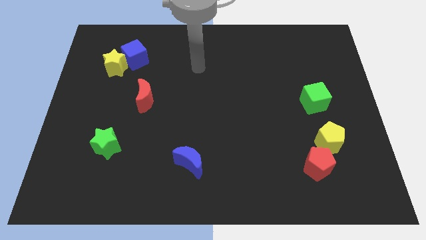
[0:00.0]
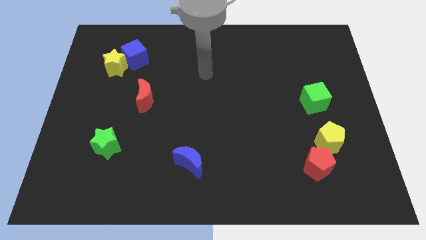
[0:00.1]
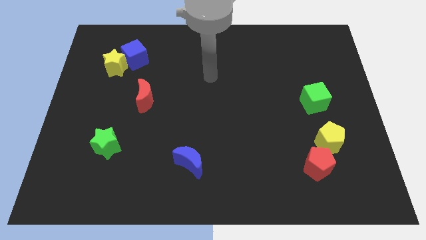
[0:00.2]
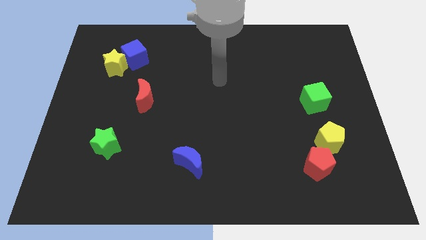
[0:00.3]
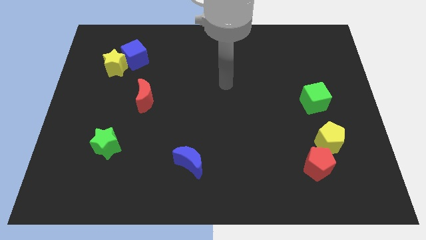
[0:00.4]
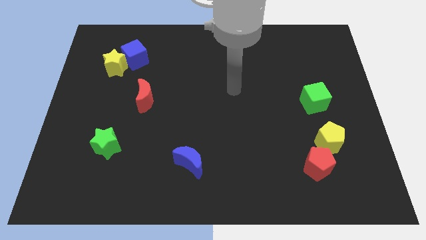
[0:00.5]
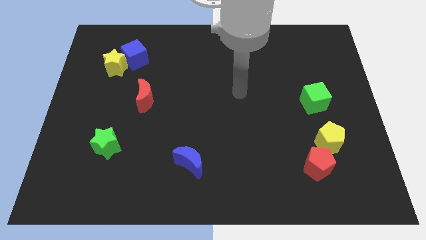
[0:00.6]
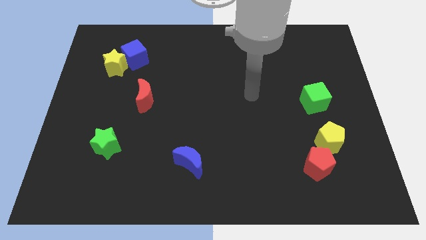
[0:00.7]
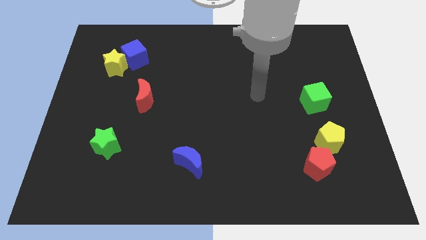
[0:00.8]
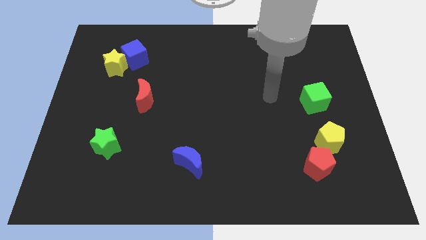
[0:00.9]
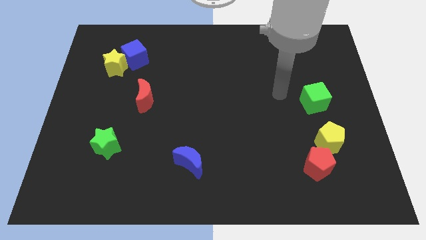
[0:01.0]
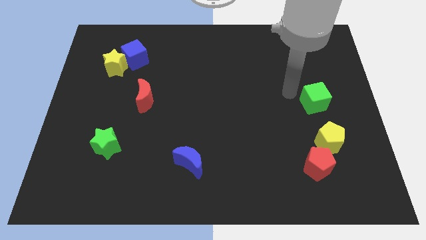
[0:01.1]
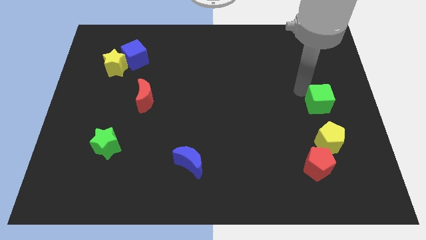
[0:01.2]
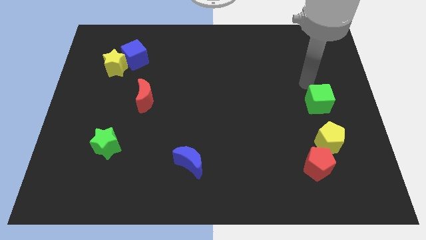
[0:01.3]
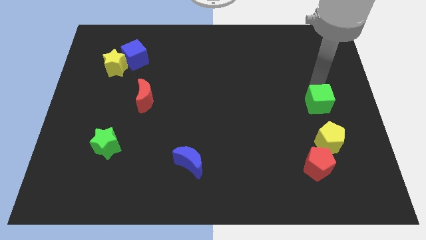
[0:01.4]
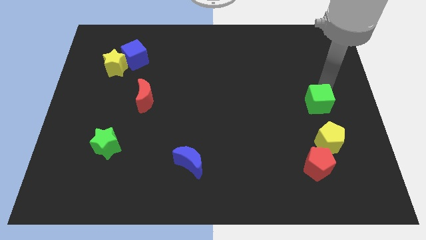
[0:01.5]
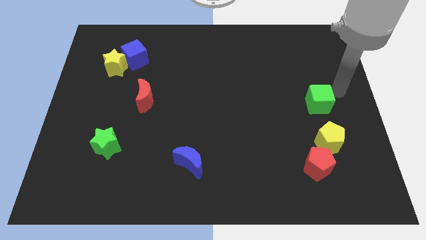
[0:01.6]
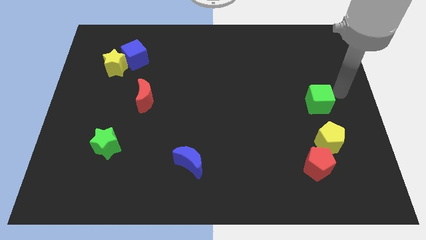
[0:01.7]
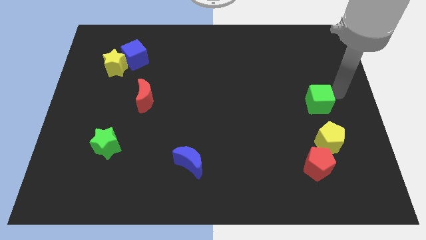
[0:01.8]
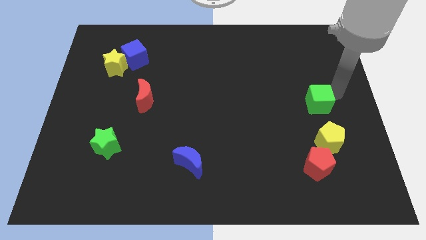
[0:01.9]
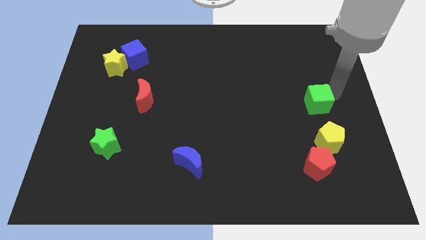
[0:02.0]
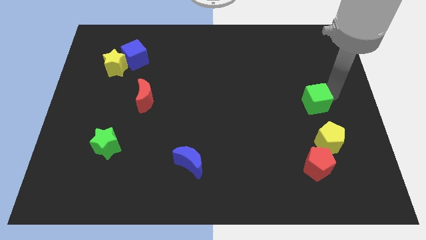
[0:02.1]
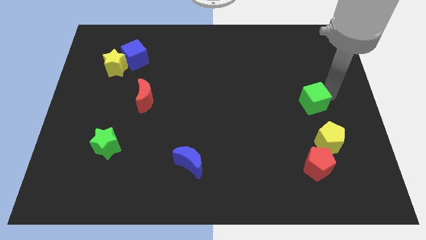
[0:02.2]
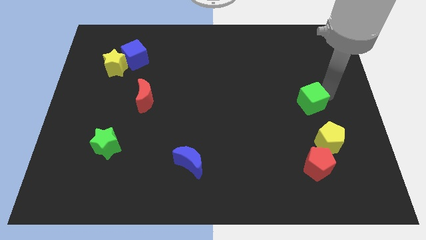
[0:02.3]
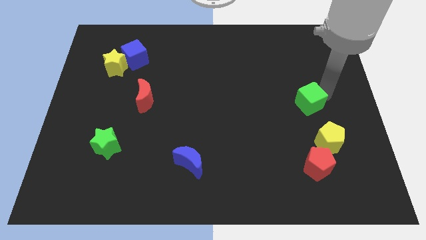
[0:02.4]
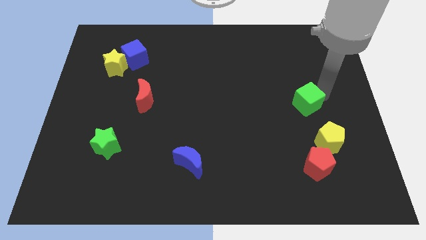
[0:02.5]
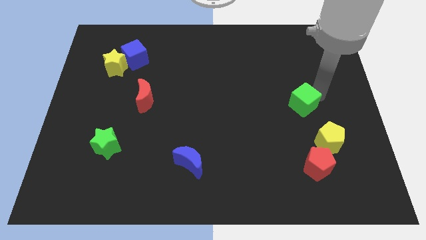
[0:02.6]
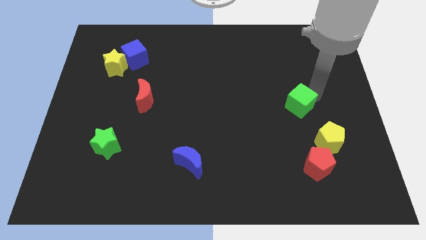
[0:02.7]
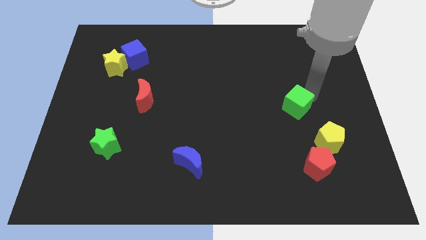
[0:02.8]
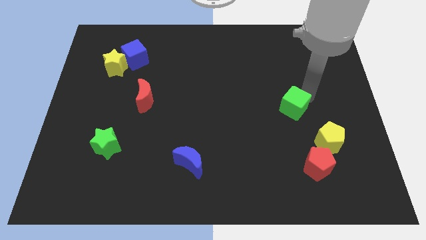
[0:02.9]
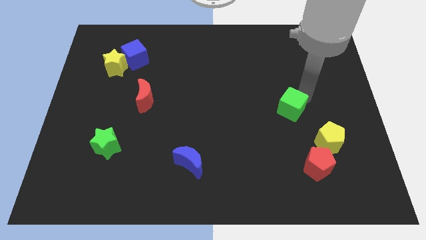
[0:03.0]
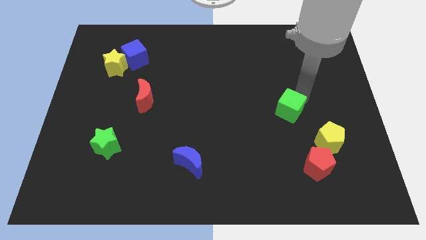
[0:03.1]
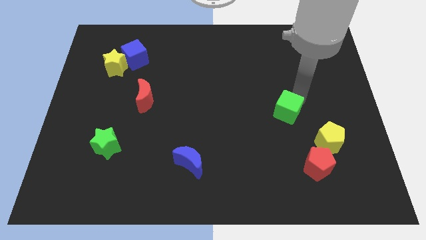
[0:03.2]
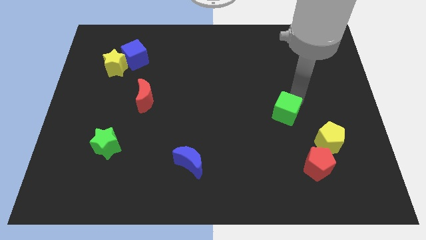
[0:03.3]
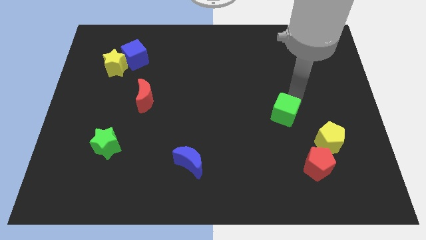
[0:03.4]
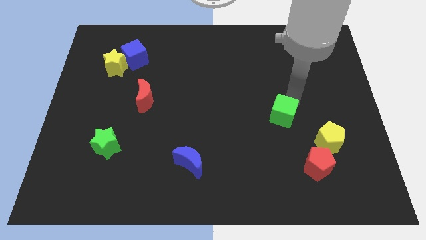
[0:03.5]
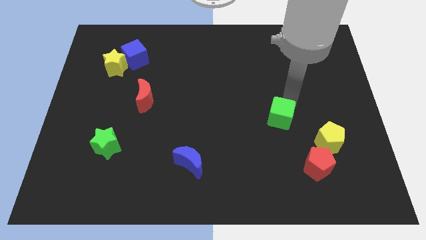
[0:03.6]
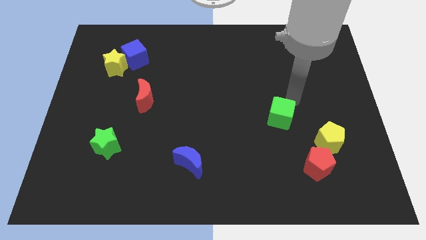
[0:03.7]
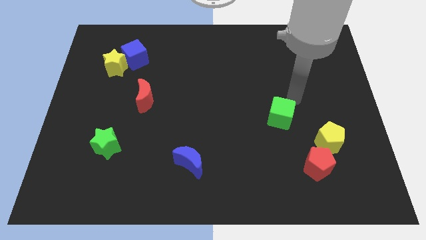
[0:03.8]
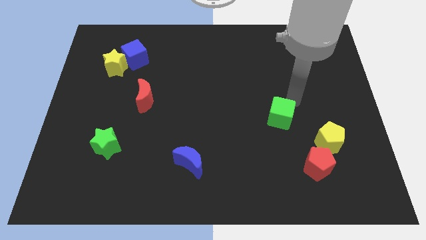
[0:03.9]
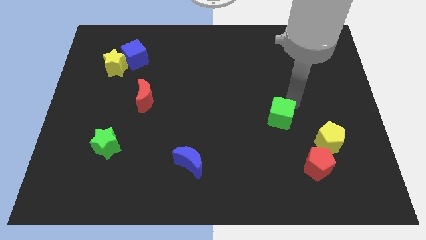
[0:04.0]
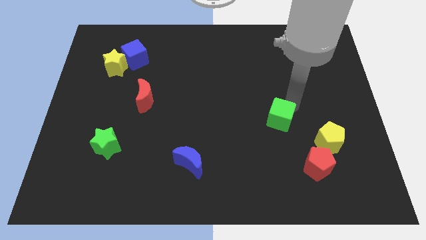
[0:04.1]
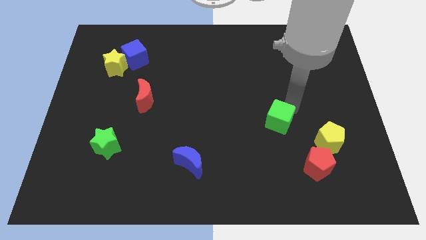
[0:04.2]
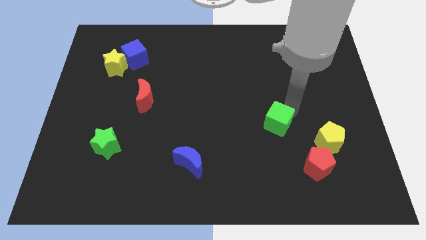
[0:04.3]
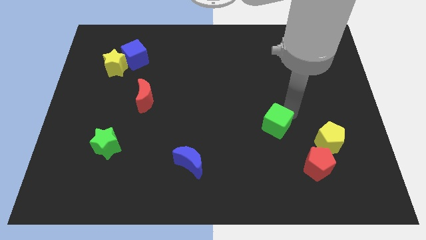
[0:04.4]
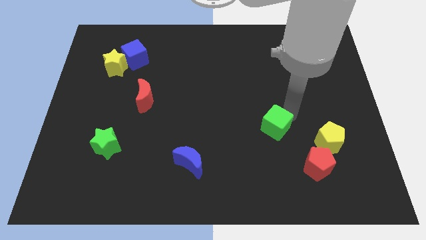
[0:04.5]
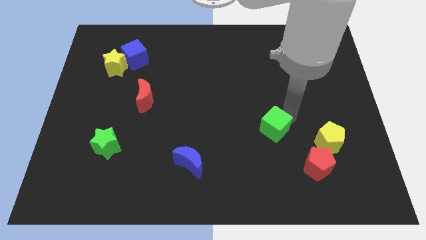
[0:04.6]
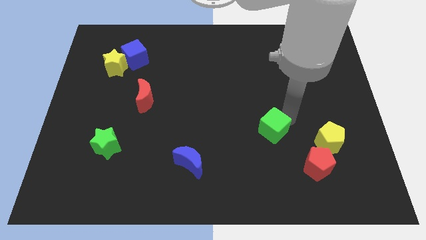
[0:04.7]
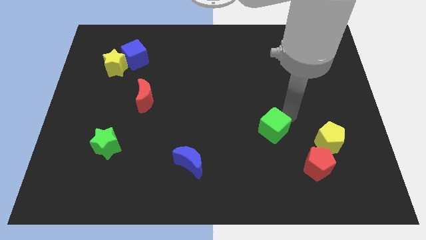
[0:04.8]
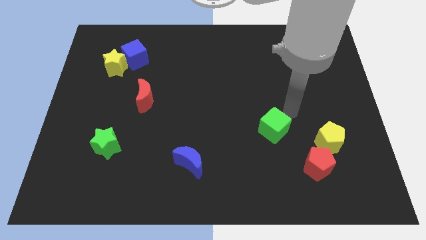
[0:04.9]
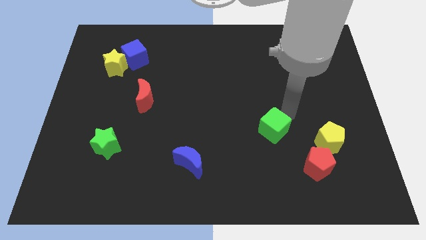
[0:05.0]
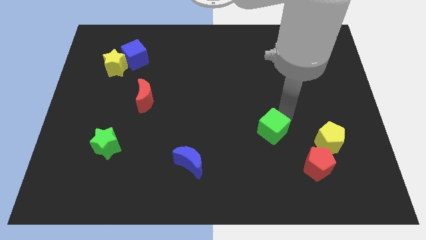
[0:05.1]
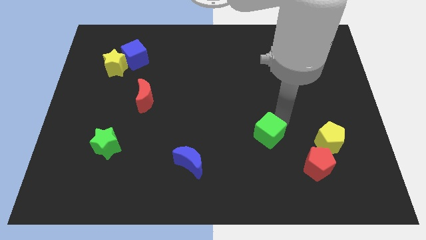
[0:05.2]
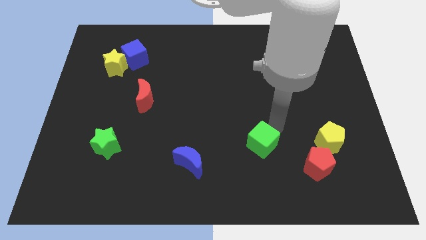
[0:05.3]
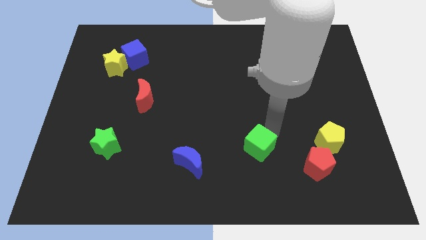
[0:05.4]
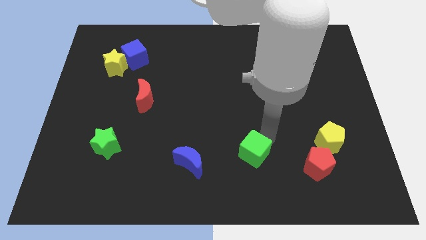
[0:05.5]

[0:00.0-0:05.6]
move the green cube to the right side of the blue moon

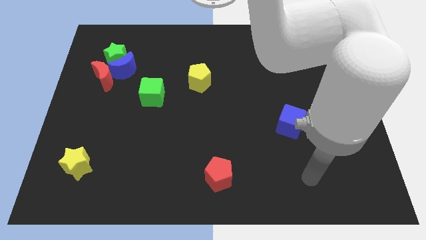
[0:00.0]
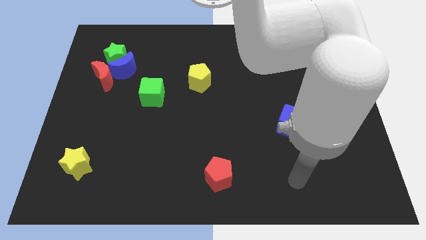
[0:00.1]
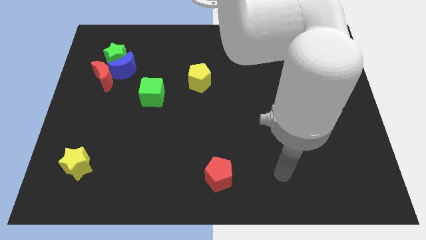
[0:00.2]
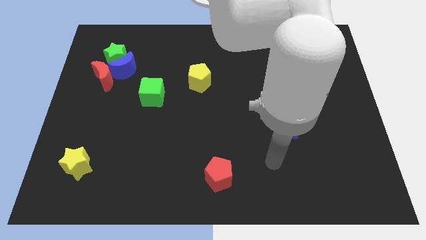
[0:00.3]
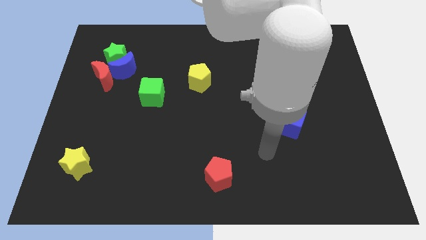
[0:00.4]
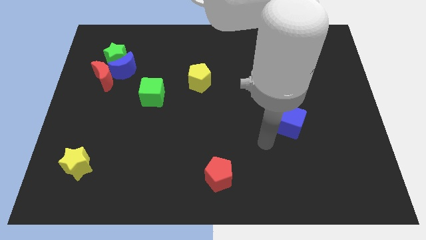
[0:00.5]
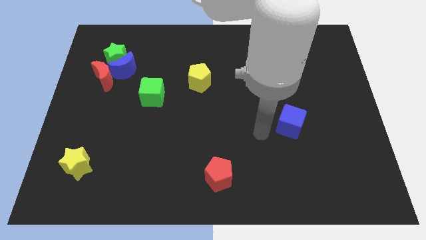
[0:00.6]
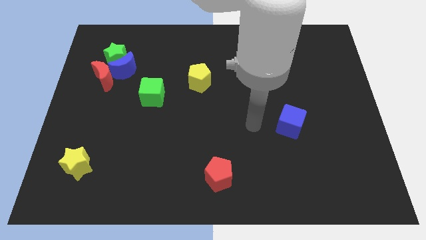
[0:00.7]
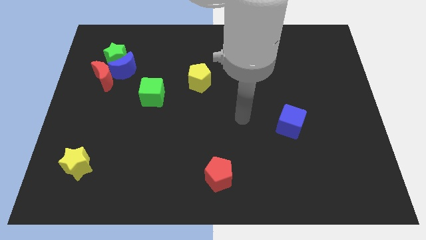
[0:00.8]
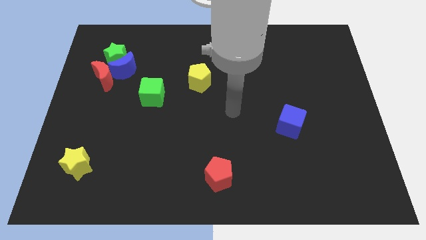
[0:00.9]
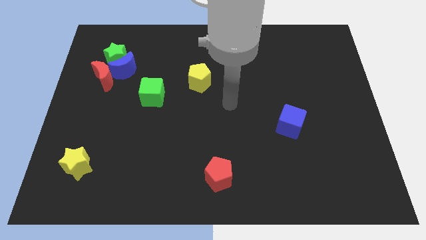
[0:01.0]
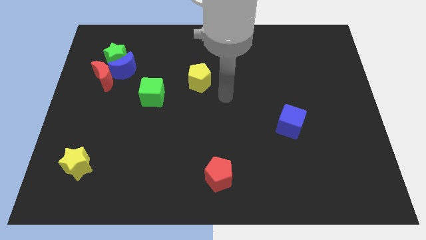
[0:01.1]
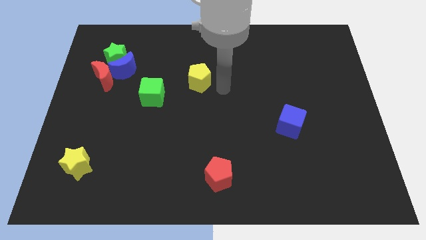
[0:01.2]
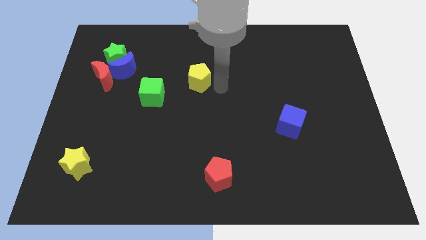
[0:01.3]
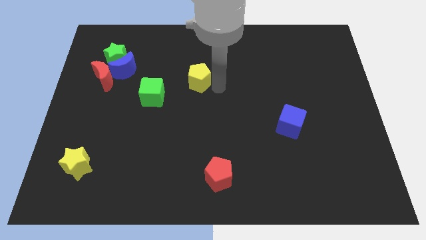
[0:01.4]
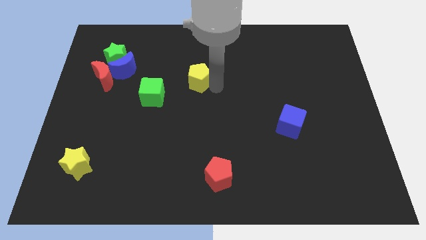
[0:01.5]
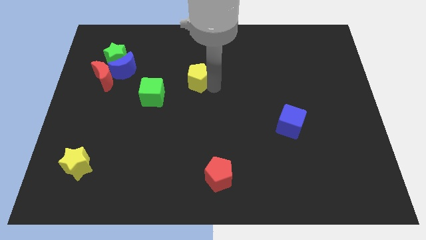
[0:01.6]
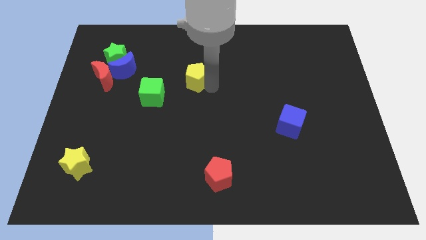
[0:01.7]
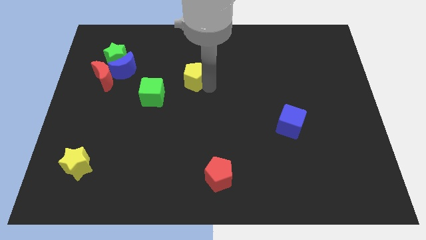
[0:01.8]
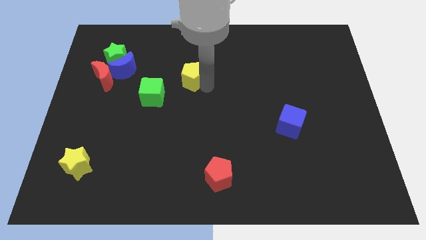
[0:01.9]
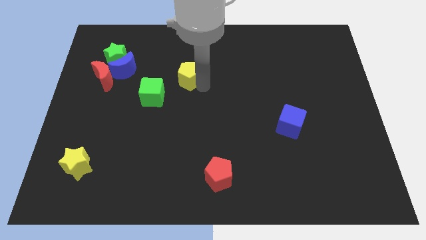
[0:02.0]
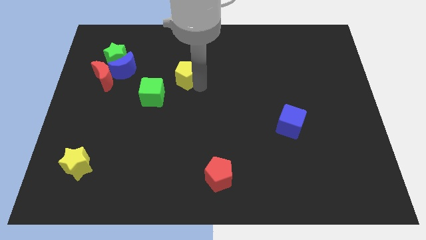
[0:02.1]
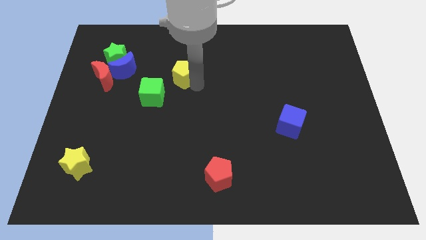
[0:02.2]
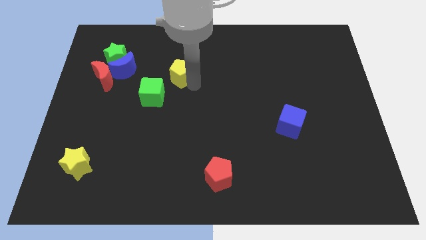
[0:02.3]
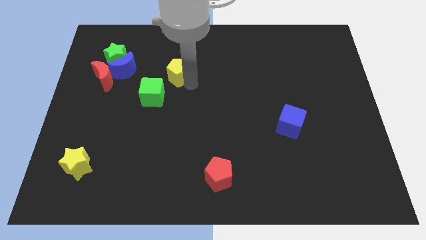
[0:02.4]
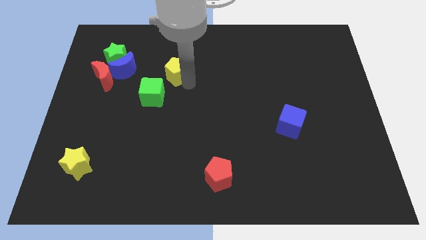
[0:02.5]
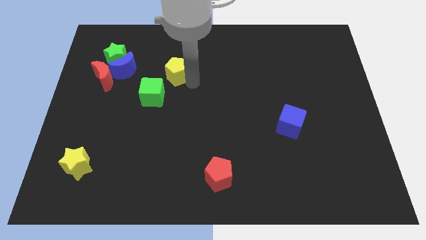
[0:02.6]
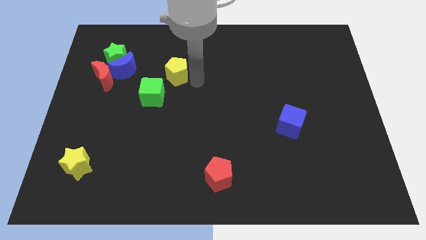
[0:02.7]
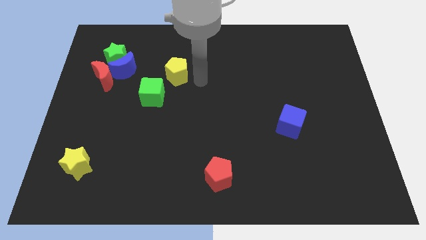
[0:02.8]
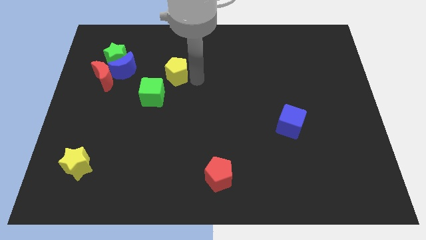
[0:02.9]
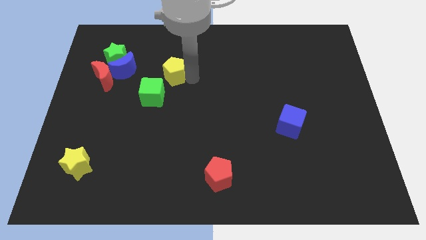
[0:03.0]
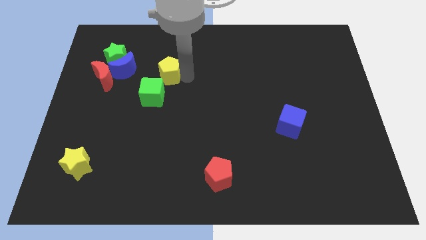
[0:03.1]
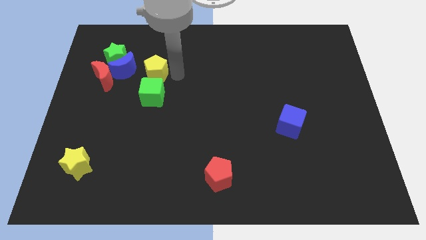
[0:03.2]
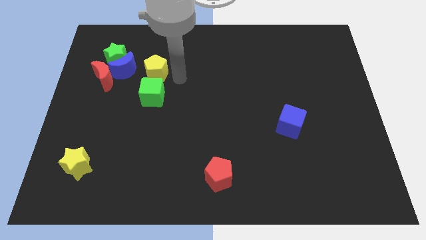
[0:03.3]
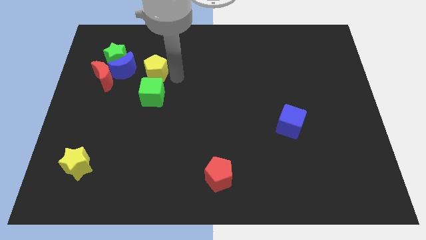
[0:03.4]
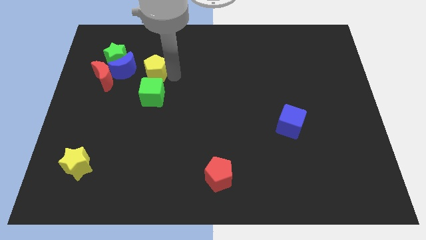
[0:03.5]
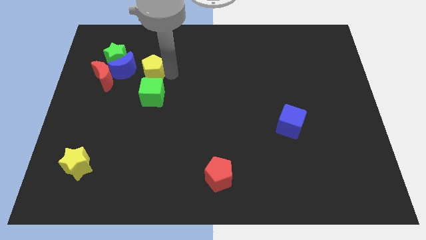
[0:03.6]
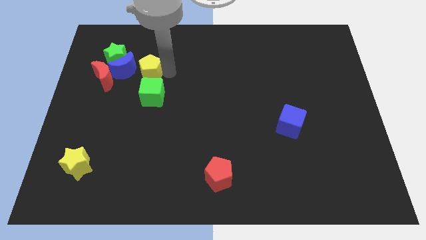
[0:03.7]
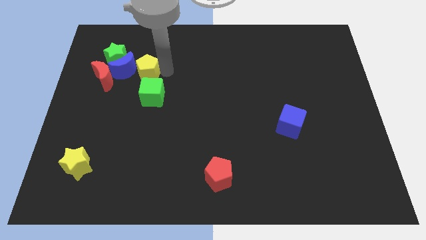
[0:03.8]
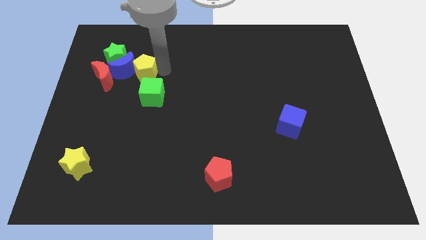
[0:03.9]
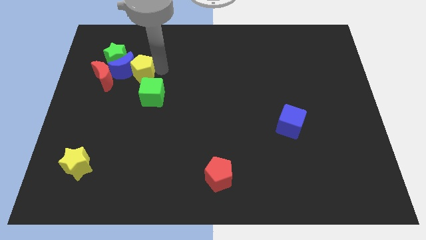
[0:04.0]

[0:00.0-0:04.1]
push the yellow pentagon diagonally up and to the right of the red moon
